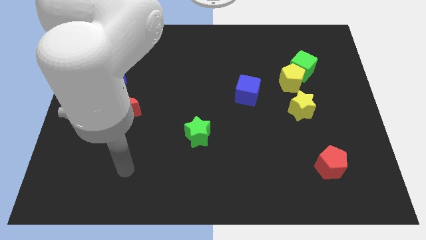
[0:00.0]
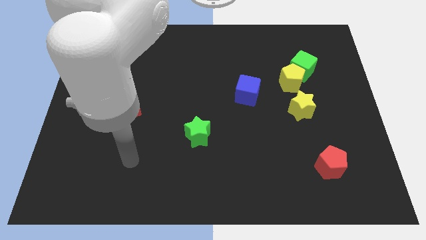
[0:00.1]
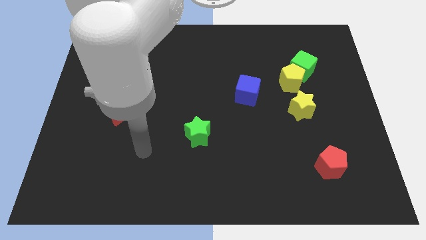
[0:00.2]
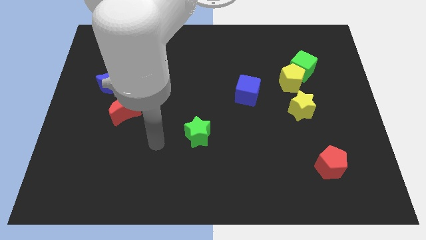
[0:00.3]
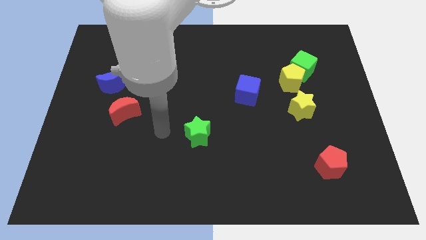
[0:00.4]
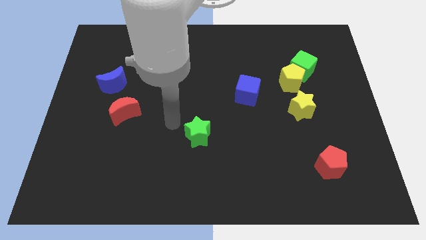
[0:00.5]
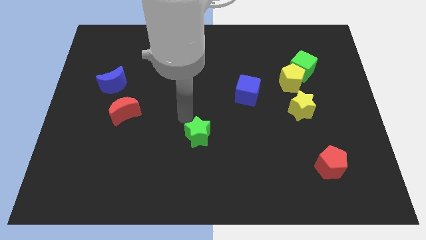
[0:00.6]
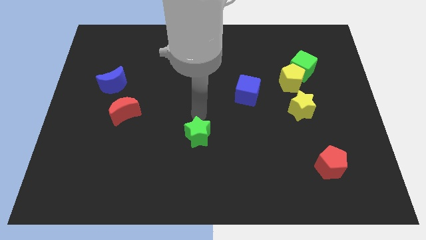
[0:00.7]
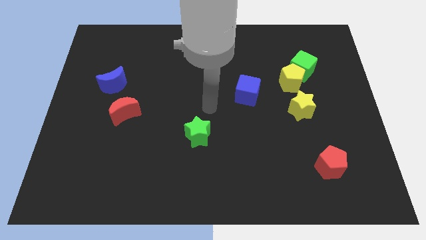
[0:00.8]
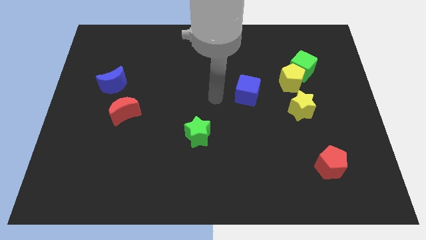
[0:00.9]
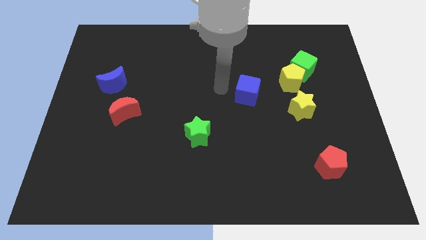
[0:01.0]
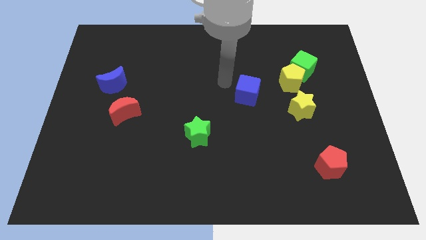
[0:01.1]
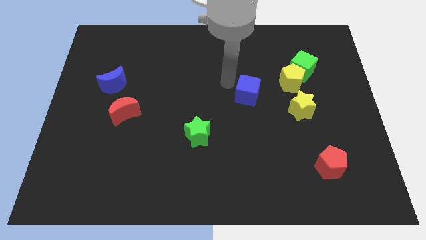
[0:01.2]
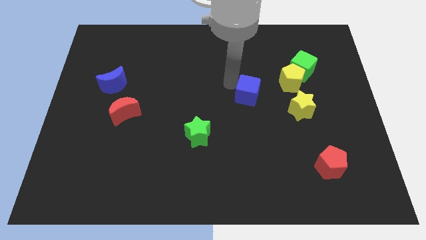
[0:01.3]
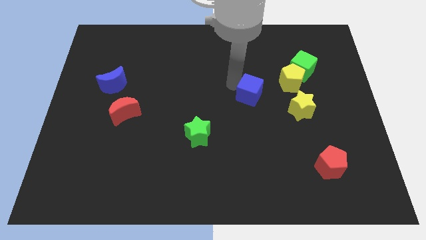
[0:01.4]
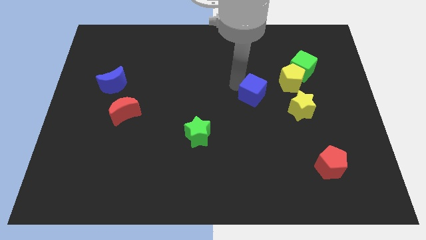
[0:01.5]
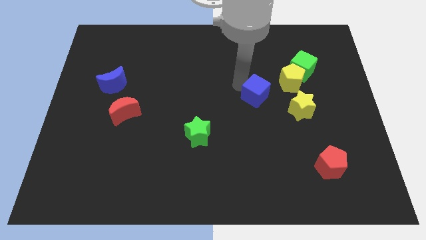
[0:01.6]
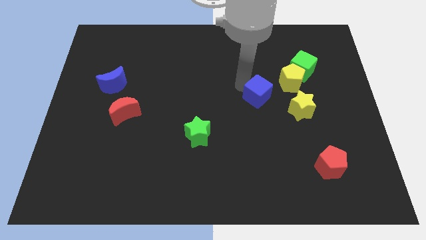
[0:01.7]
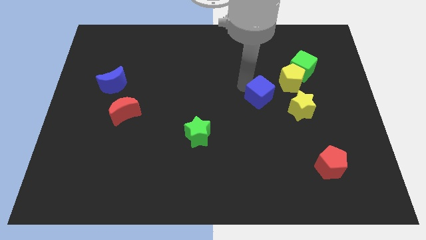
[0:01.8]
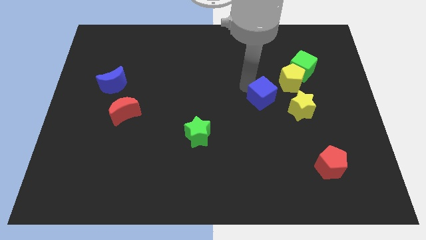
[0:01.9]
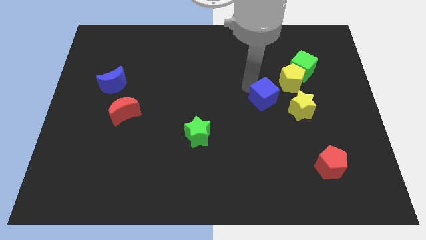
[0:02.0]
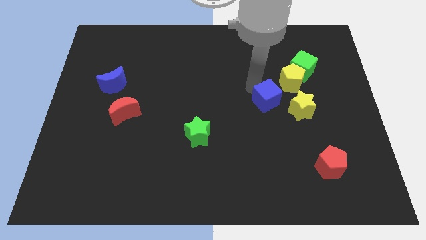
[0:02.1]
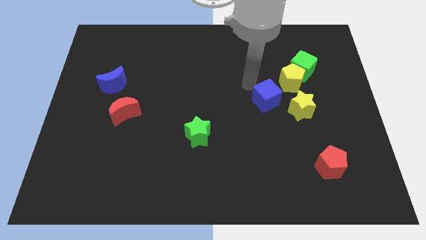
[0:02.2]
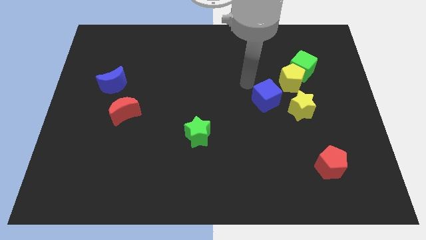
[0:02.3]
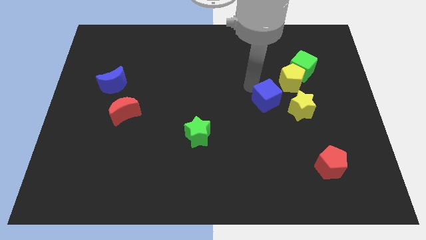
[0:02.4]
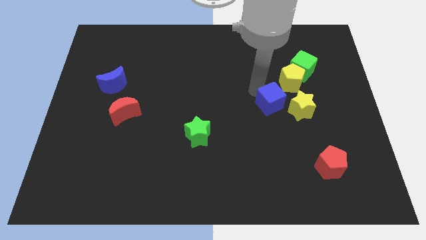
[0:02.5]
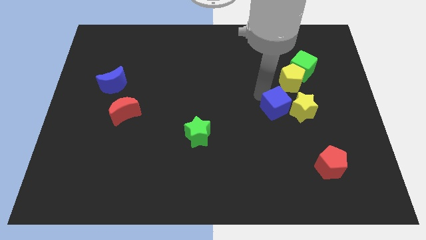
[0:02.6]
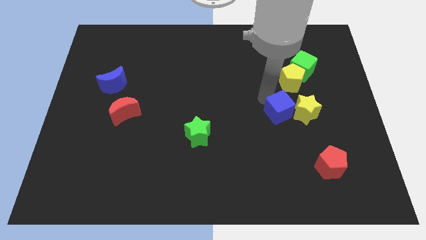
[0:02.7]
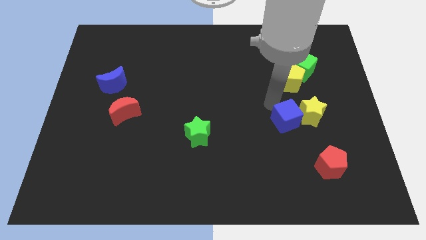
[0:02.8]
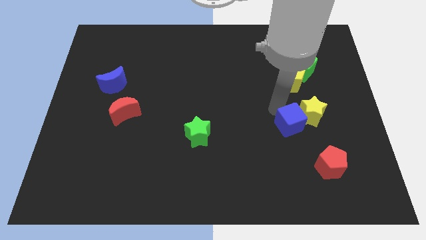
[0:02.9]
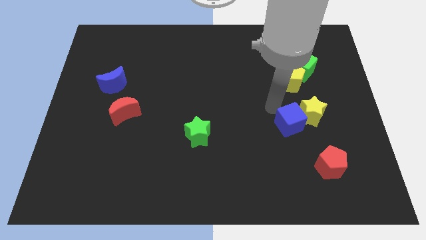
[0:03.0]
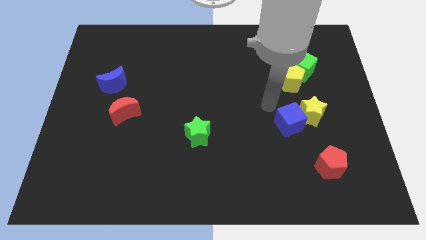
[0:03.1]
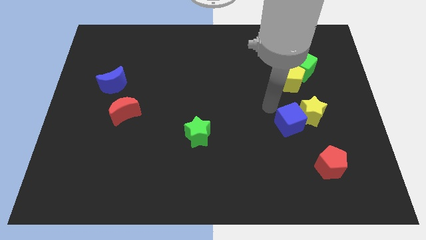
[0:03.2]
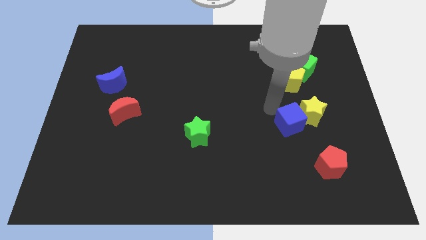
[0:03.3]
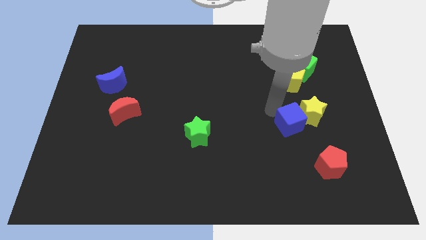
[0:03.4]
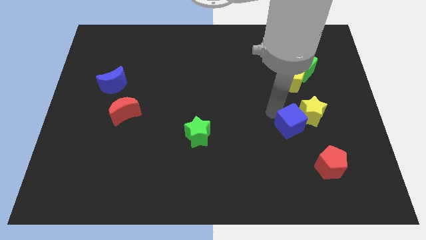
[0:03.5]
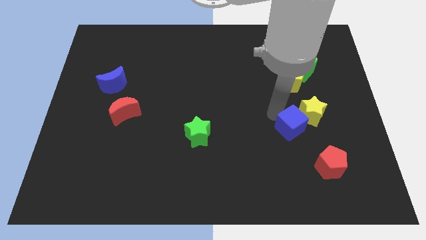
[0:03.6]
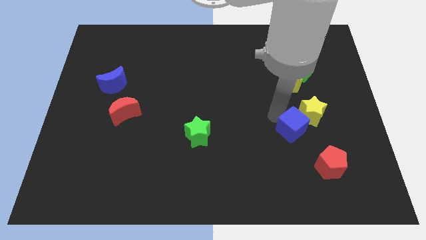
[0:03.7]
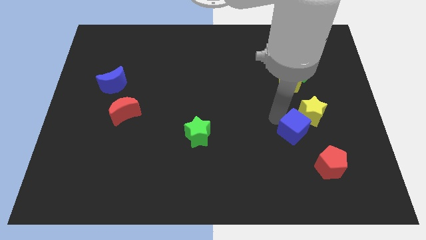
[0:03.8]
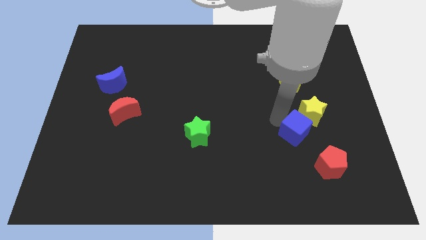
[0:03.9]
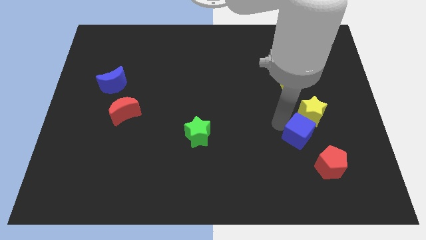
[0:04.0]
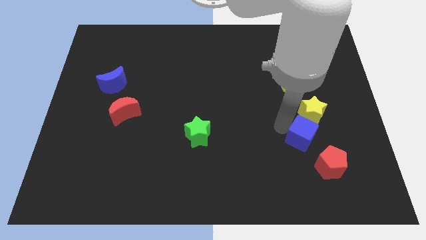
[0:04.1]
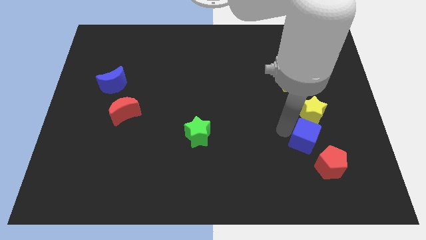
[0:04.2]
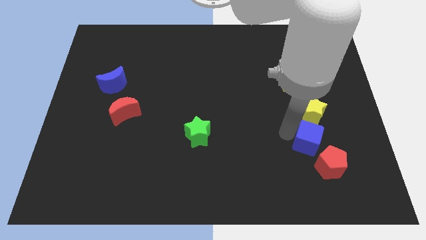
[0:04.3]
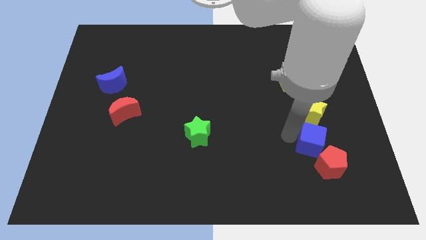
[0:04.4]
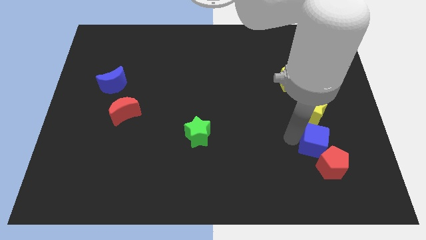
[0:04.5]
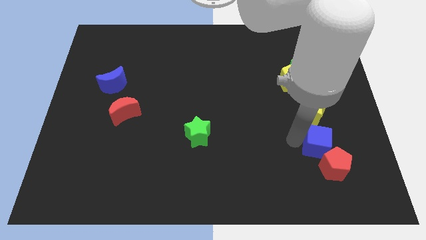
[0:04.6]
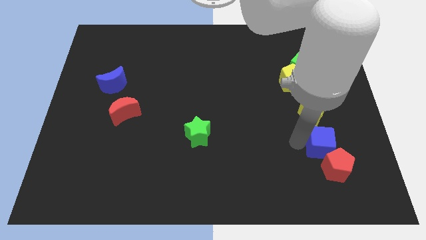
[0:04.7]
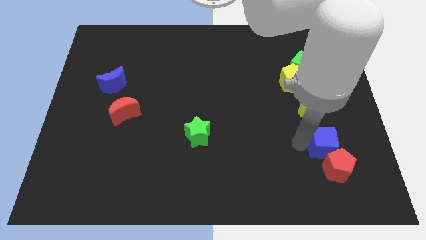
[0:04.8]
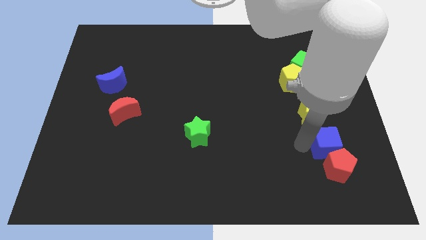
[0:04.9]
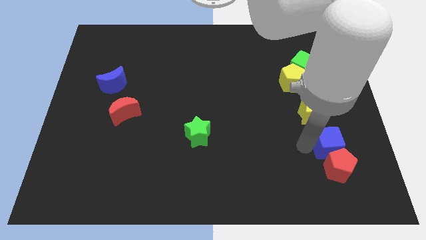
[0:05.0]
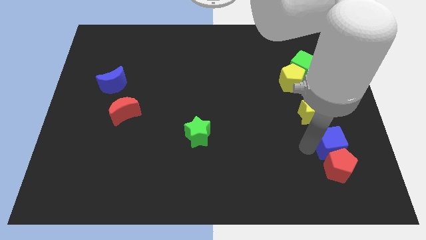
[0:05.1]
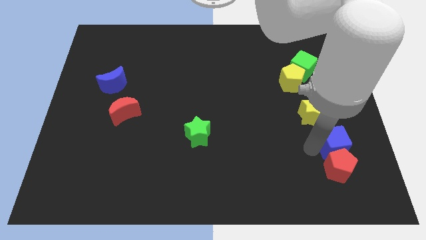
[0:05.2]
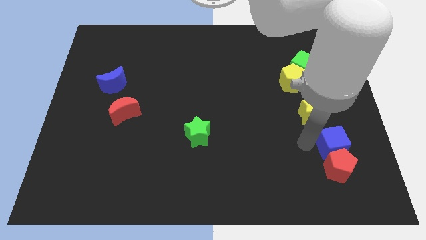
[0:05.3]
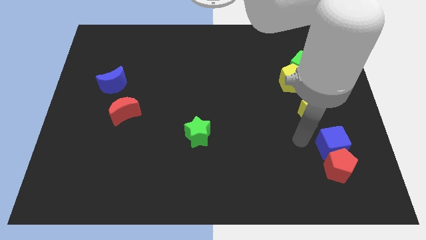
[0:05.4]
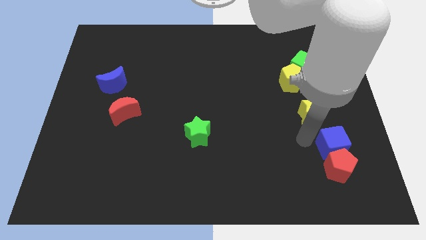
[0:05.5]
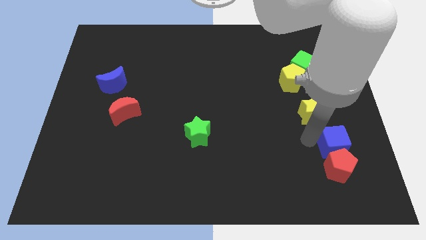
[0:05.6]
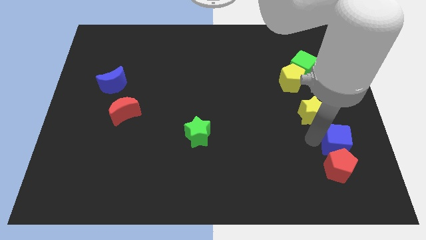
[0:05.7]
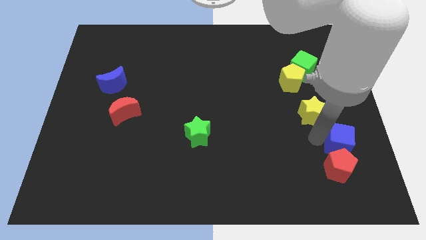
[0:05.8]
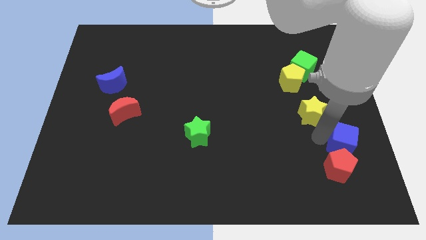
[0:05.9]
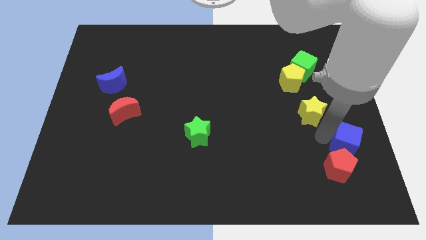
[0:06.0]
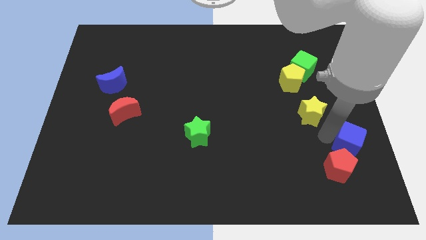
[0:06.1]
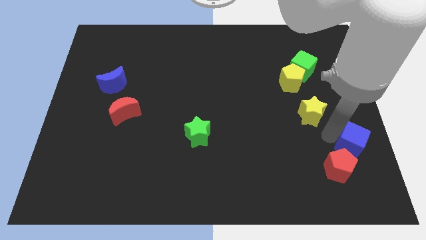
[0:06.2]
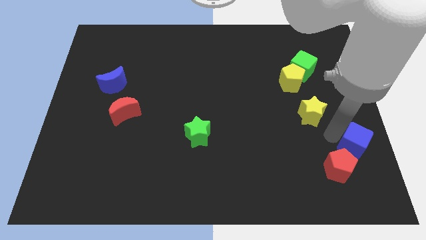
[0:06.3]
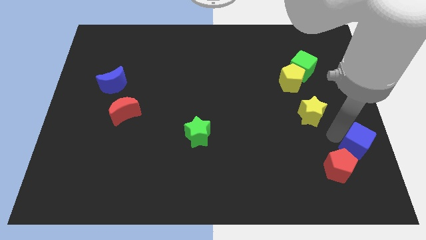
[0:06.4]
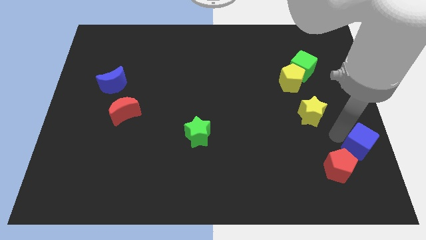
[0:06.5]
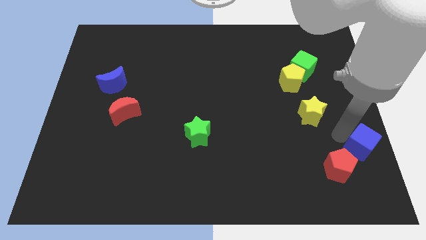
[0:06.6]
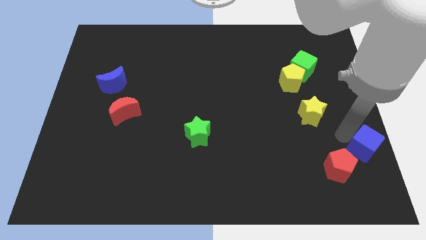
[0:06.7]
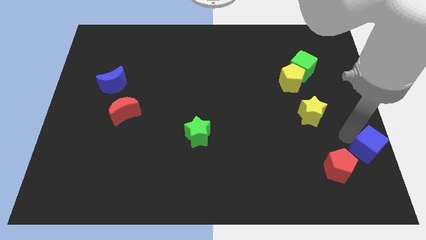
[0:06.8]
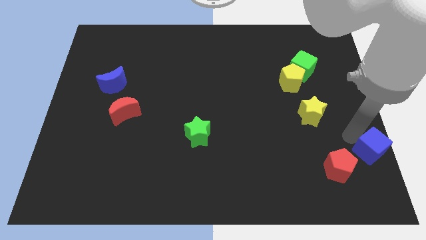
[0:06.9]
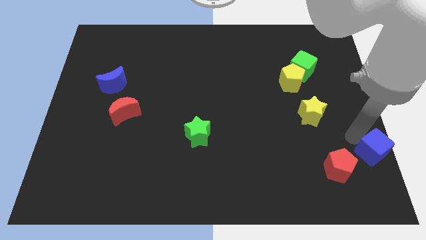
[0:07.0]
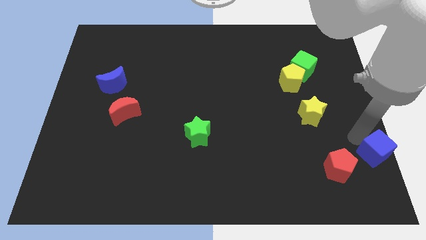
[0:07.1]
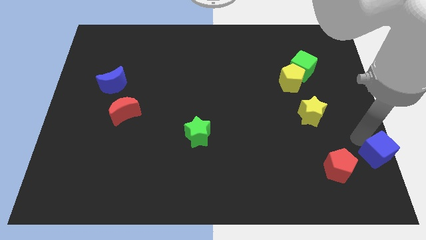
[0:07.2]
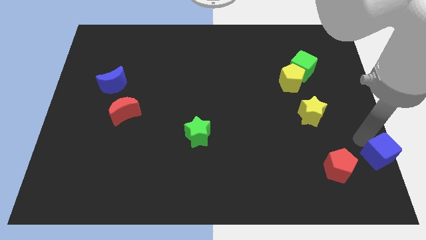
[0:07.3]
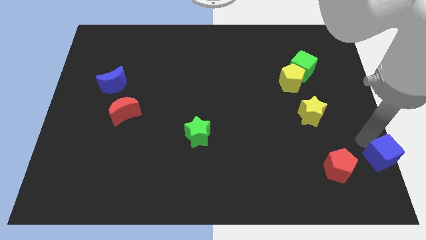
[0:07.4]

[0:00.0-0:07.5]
put the blue cube to the bottom right corner
